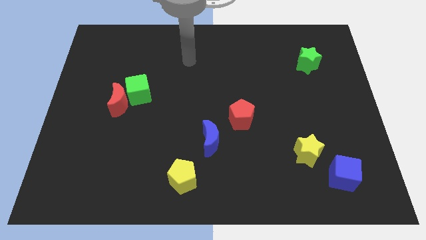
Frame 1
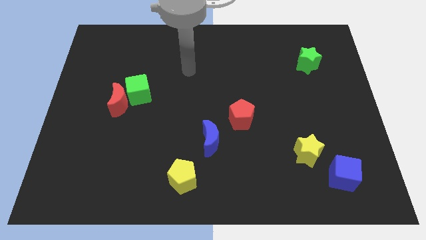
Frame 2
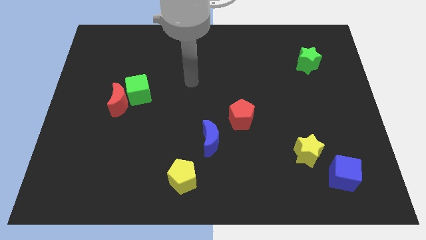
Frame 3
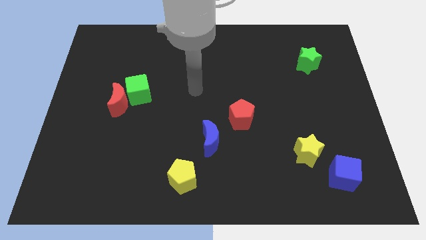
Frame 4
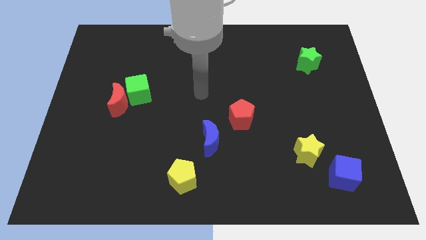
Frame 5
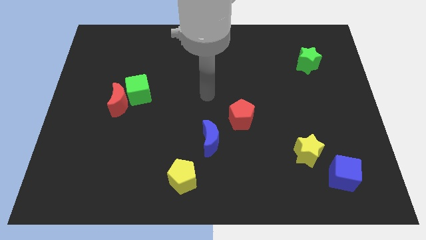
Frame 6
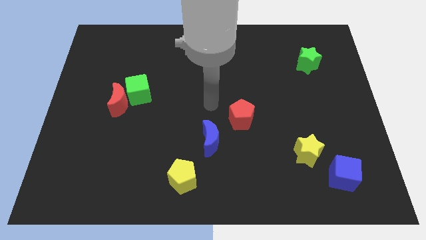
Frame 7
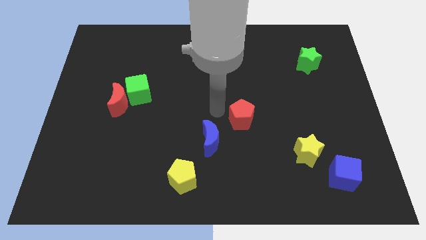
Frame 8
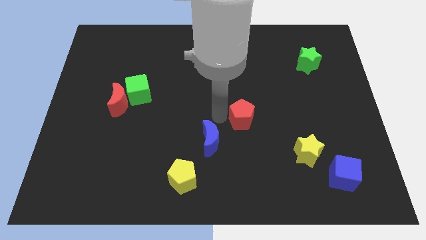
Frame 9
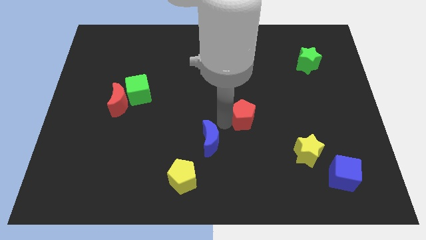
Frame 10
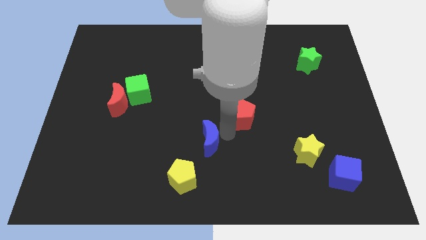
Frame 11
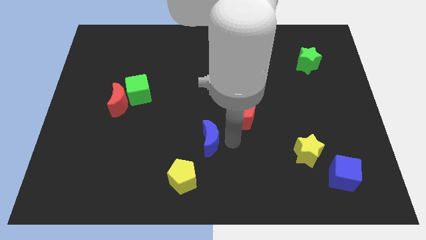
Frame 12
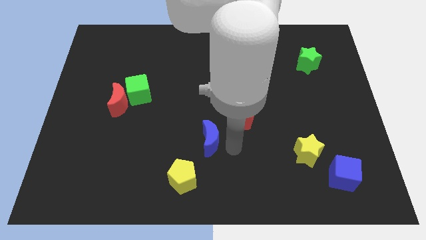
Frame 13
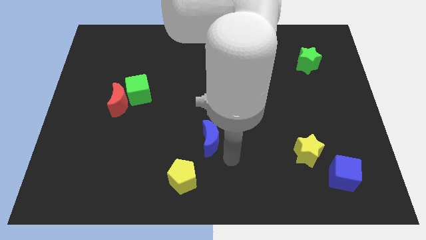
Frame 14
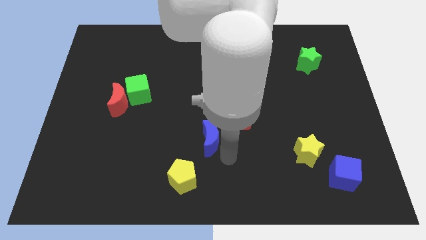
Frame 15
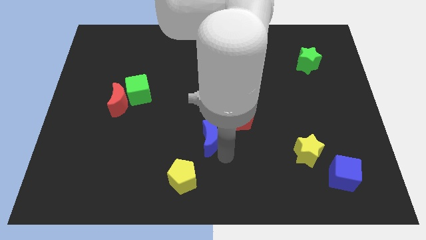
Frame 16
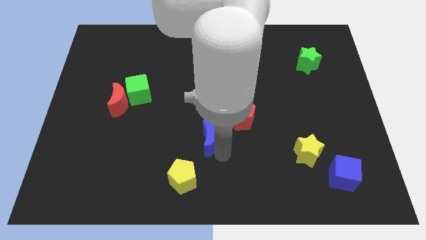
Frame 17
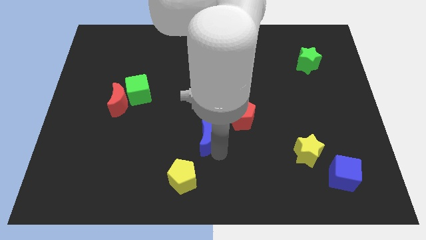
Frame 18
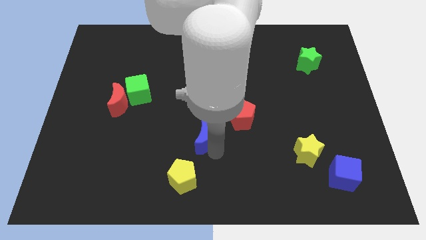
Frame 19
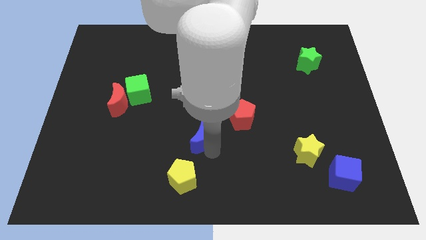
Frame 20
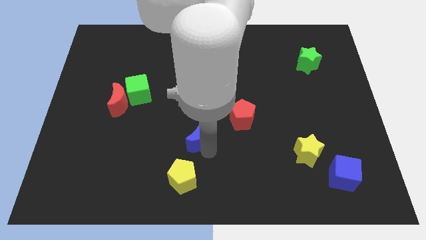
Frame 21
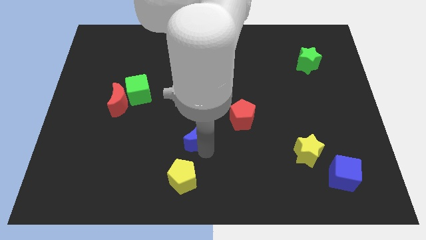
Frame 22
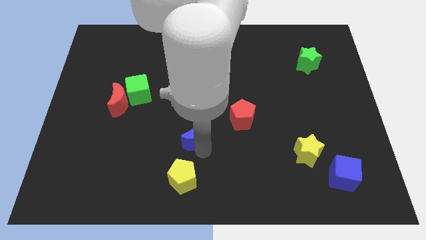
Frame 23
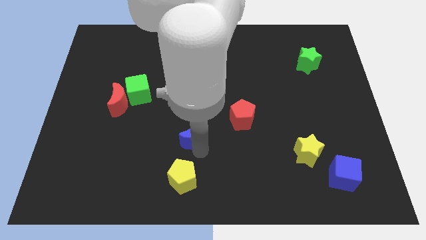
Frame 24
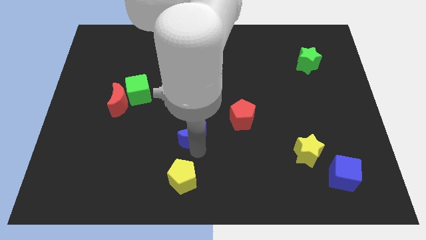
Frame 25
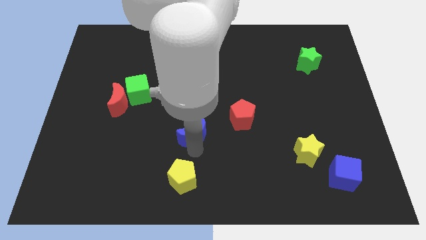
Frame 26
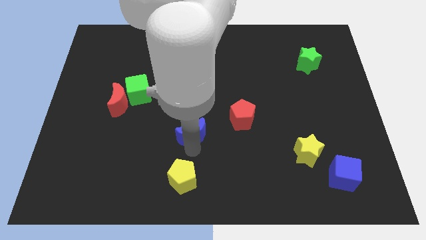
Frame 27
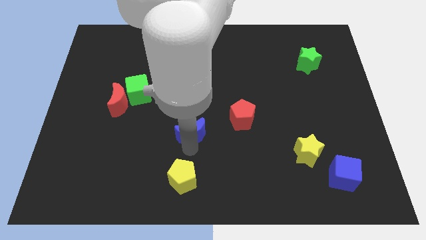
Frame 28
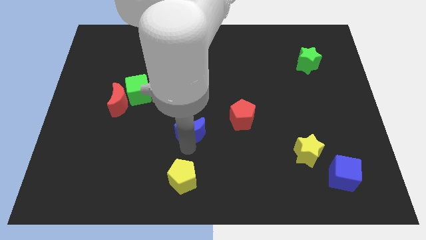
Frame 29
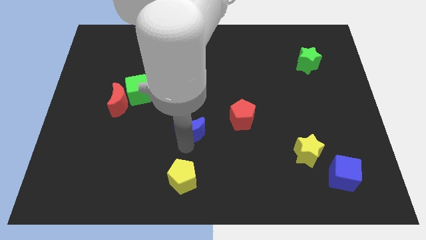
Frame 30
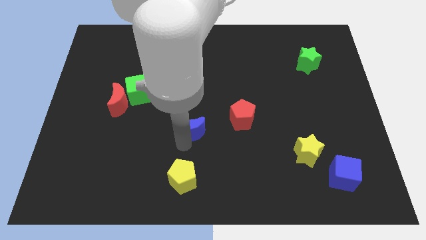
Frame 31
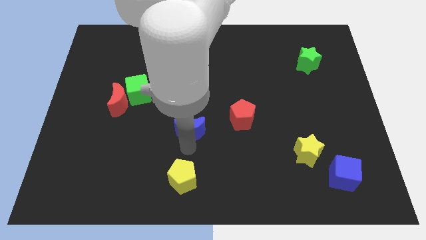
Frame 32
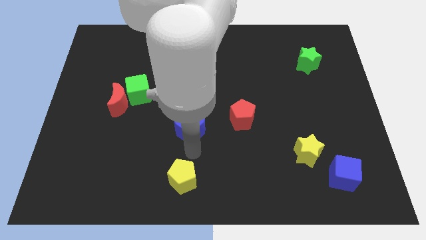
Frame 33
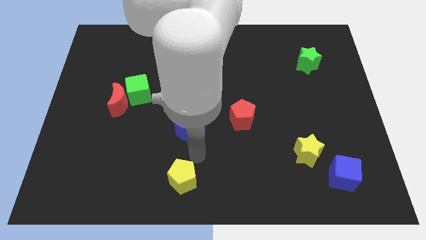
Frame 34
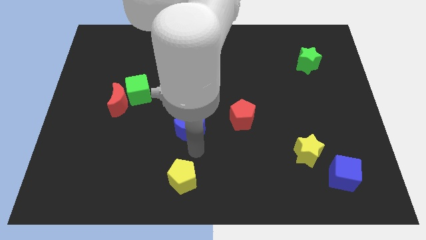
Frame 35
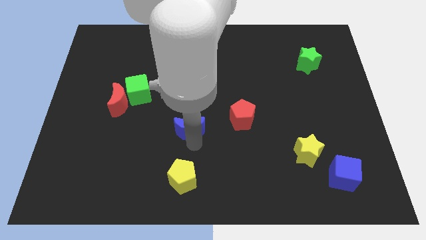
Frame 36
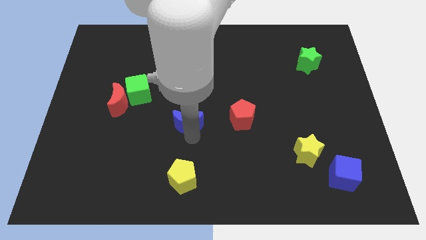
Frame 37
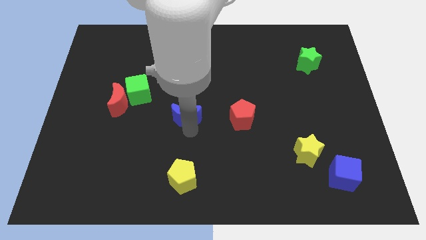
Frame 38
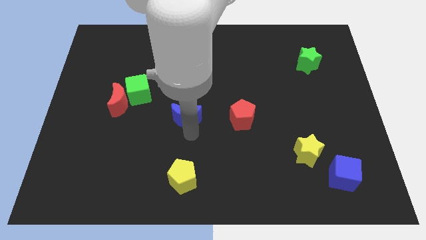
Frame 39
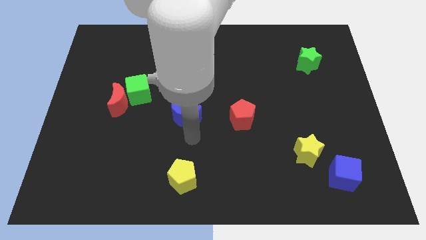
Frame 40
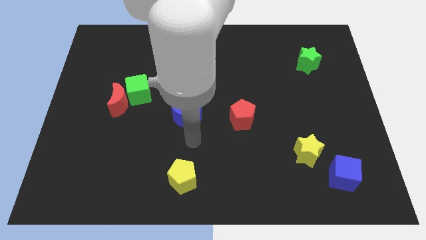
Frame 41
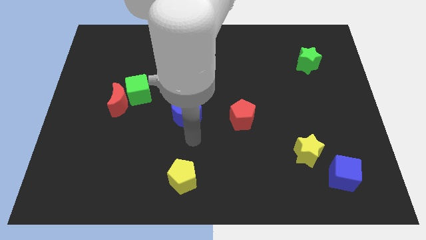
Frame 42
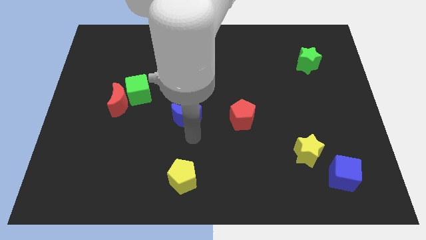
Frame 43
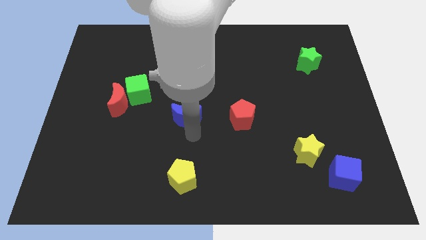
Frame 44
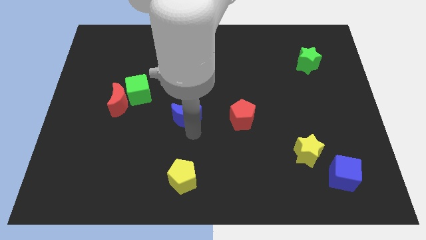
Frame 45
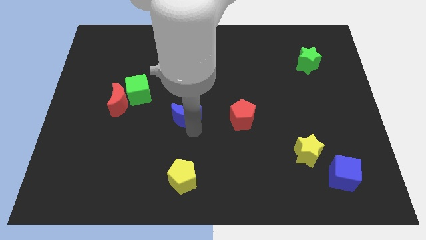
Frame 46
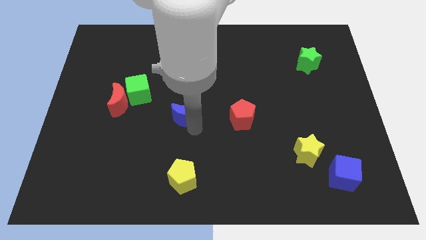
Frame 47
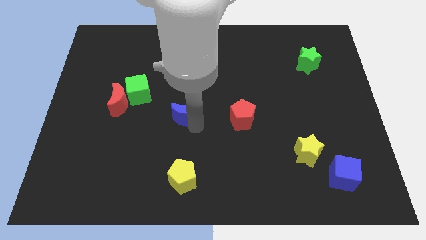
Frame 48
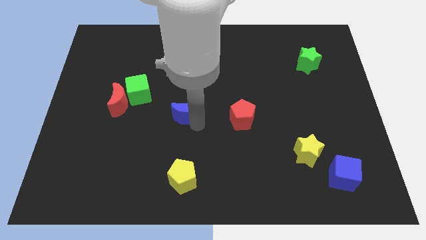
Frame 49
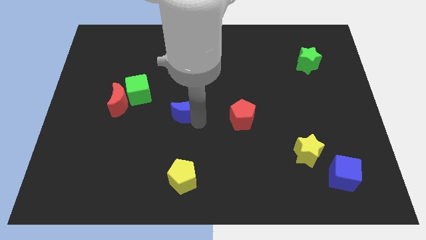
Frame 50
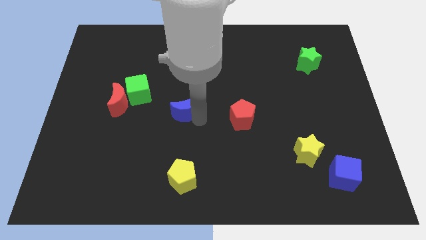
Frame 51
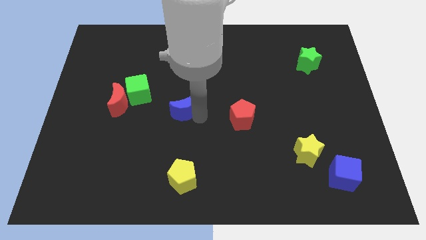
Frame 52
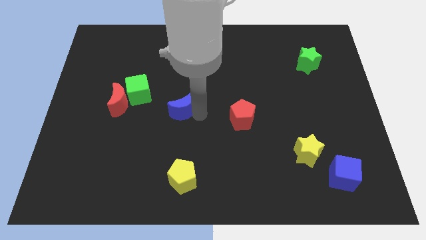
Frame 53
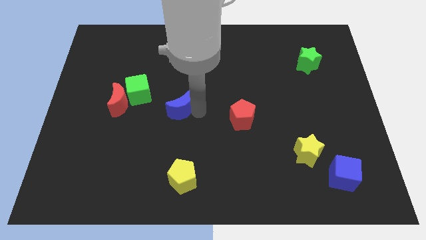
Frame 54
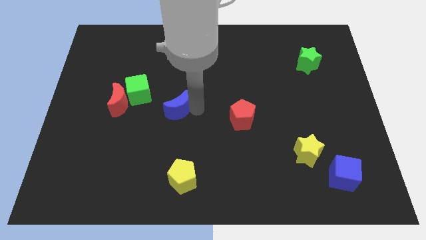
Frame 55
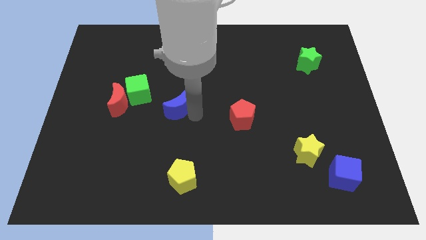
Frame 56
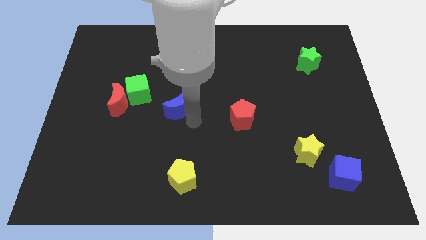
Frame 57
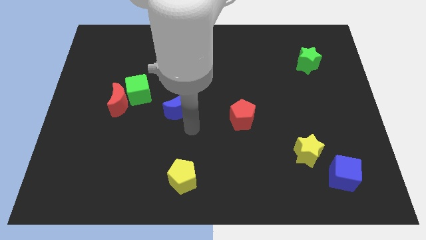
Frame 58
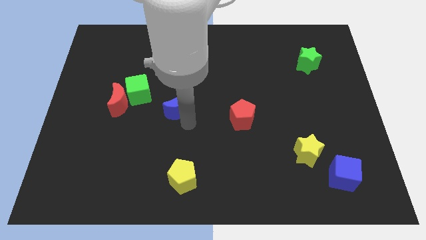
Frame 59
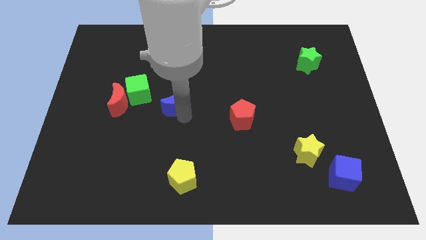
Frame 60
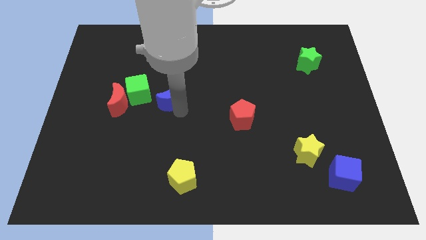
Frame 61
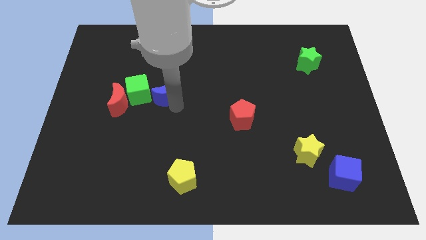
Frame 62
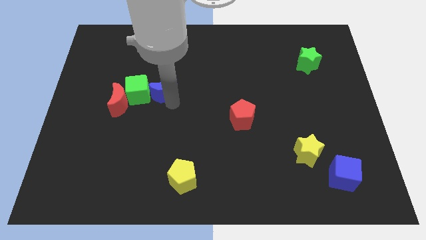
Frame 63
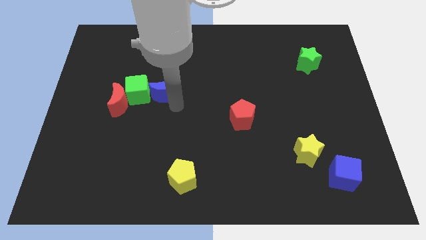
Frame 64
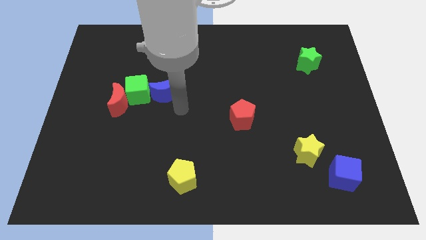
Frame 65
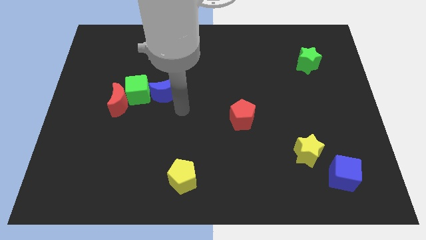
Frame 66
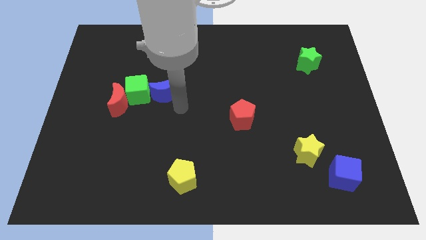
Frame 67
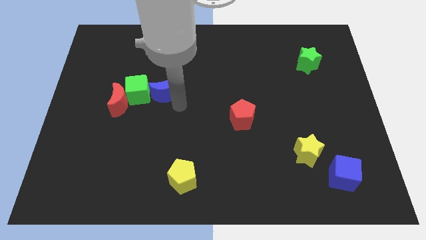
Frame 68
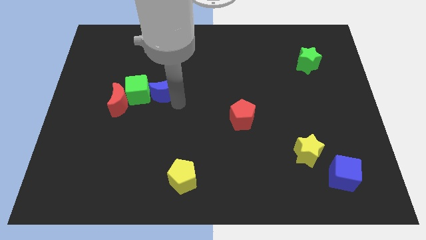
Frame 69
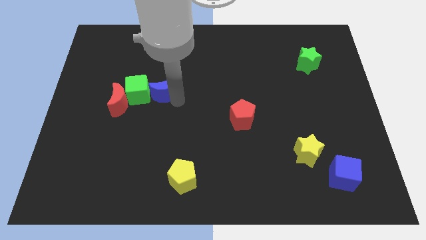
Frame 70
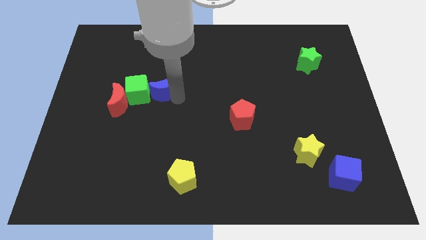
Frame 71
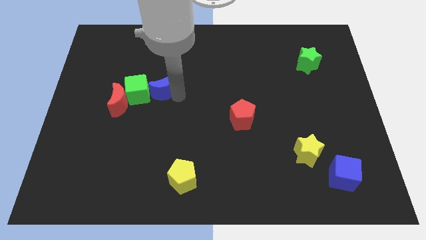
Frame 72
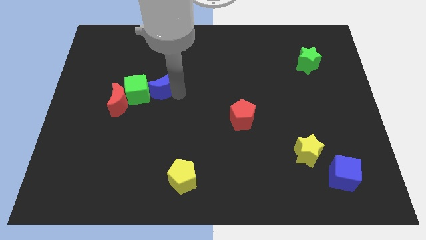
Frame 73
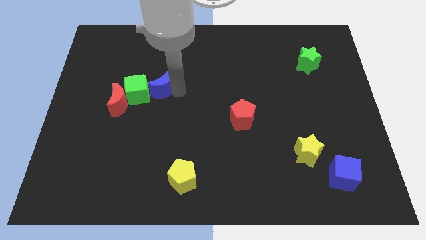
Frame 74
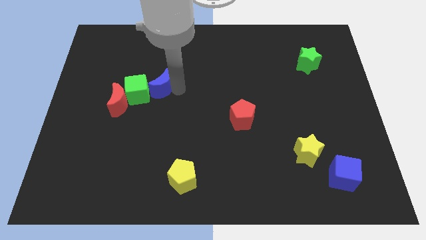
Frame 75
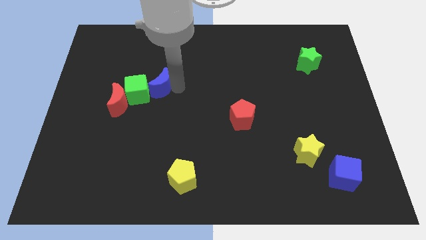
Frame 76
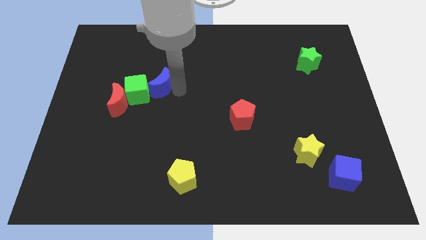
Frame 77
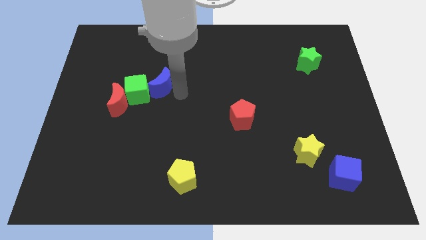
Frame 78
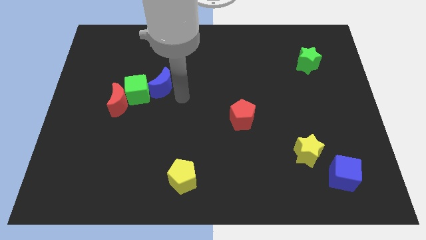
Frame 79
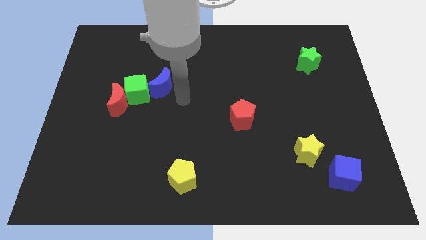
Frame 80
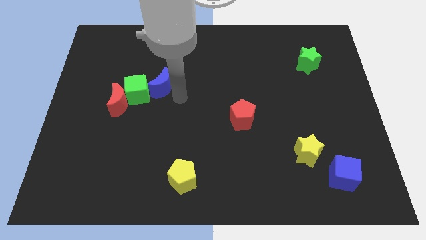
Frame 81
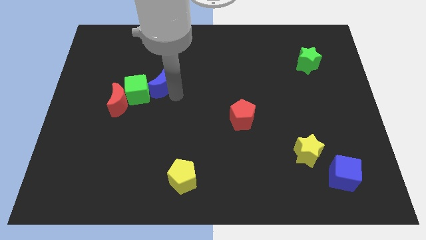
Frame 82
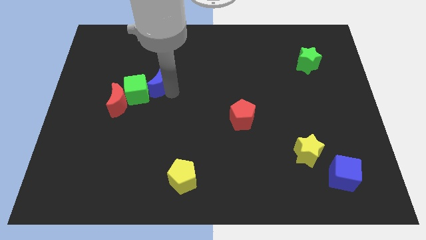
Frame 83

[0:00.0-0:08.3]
push the blue moon diagonally up and to the left

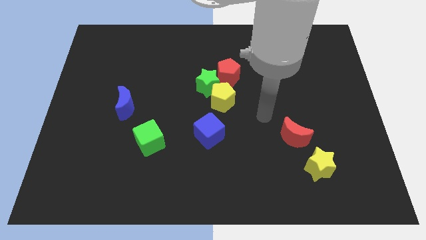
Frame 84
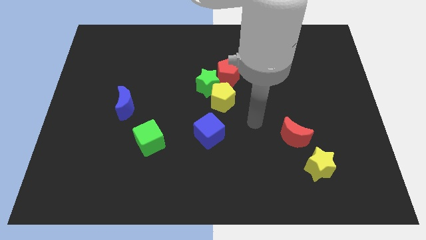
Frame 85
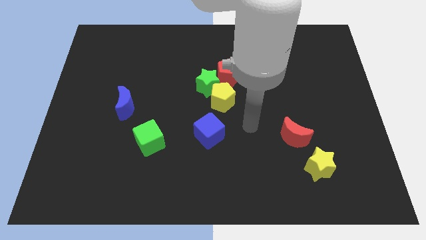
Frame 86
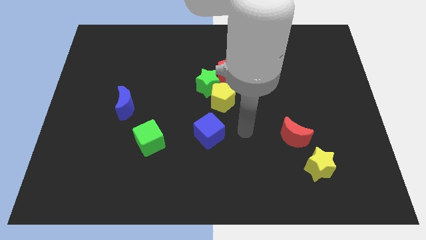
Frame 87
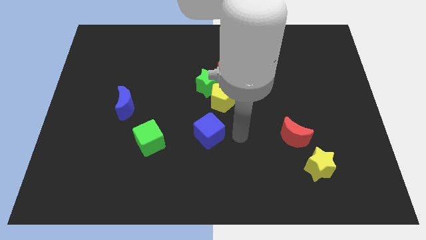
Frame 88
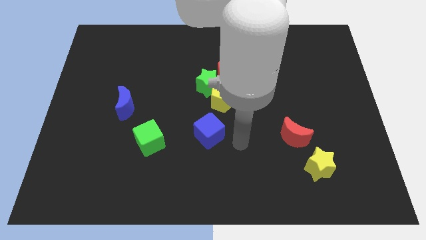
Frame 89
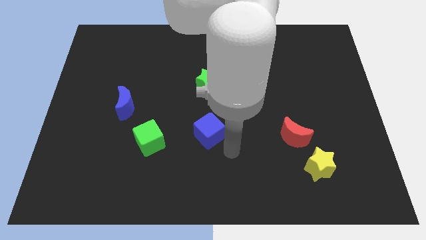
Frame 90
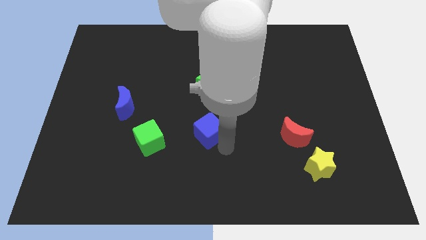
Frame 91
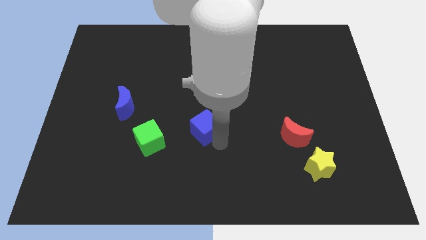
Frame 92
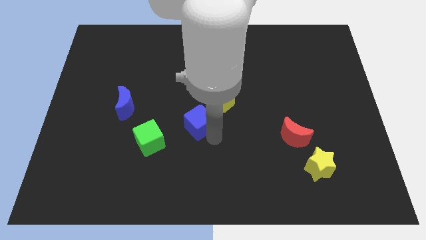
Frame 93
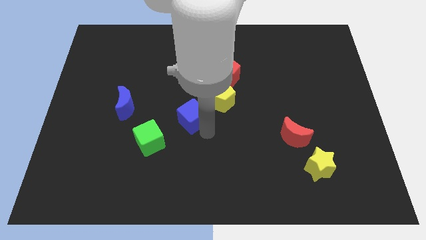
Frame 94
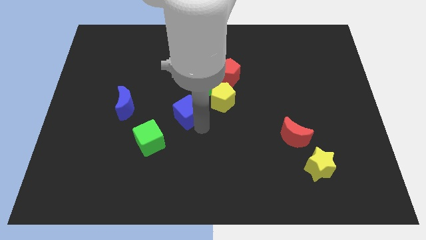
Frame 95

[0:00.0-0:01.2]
push the blue cube a bit up and left
